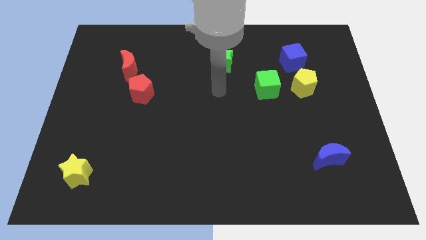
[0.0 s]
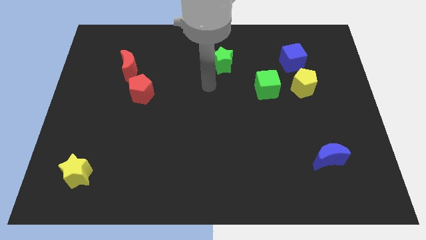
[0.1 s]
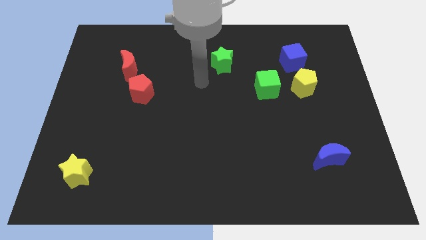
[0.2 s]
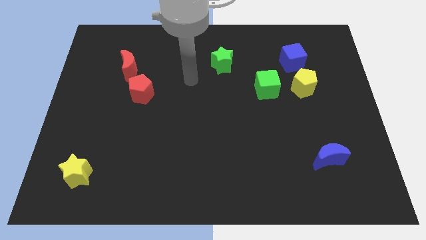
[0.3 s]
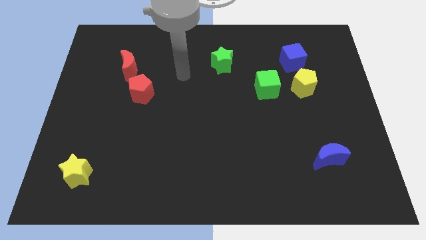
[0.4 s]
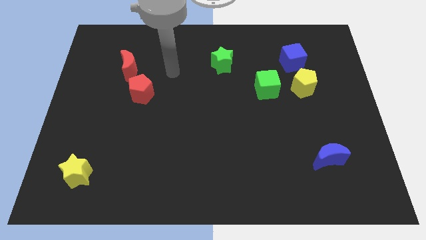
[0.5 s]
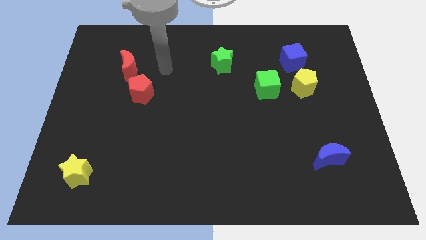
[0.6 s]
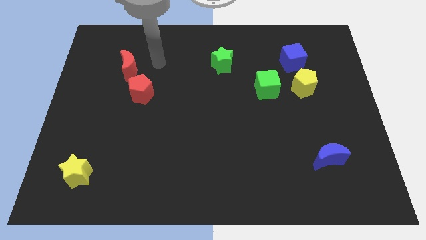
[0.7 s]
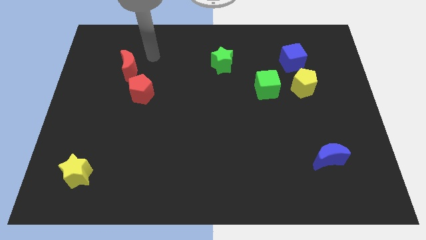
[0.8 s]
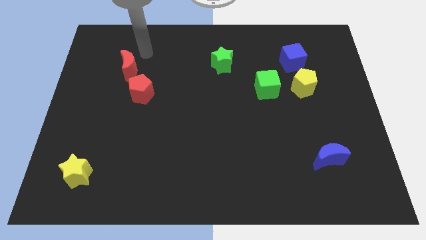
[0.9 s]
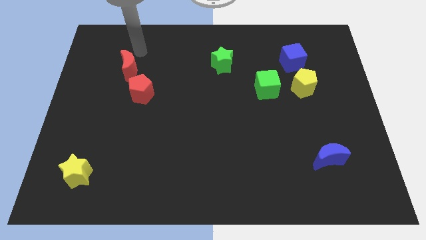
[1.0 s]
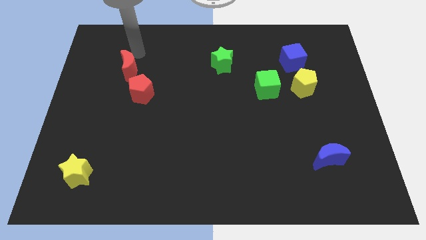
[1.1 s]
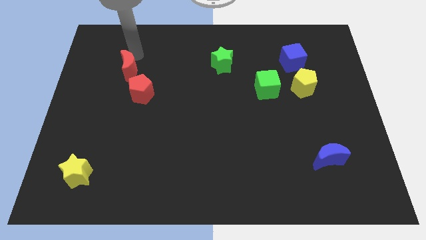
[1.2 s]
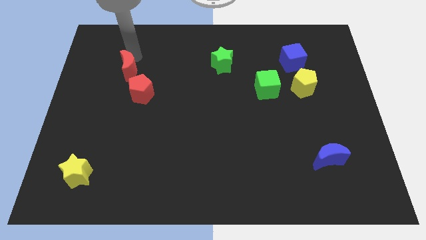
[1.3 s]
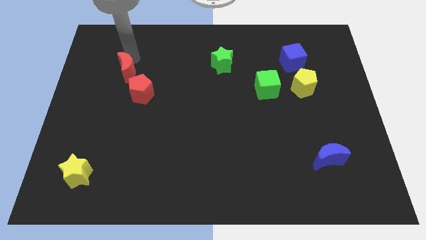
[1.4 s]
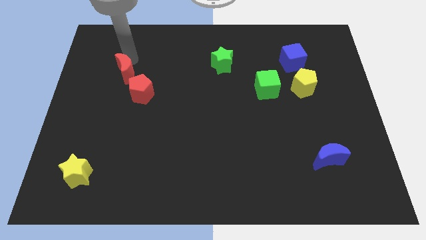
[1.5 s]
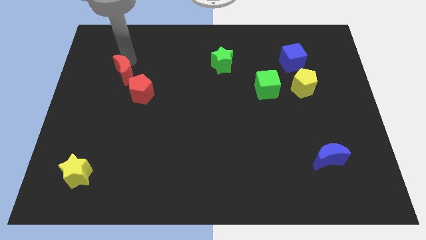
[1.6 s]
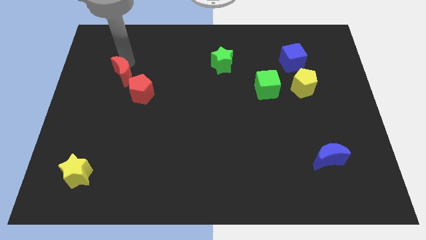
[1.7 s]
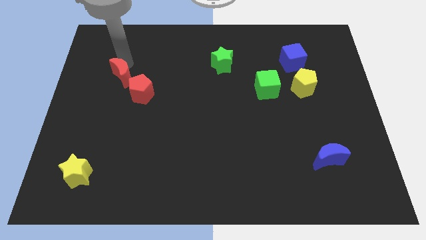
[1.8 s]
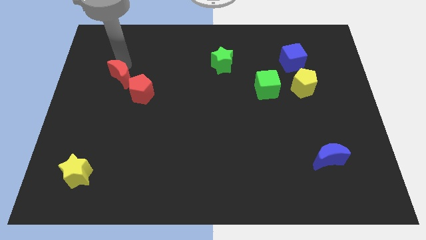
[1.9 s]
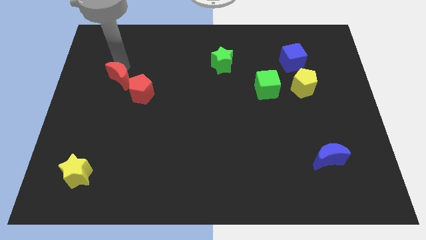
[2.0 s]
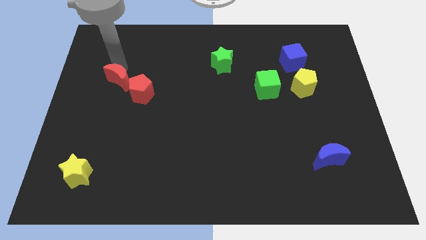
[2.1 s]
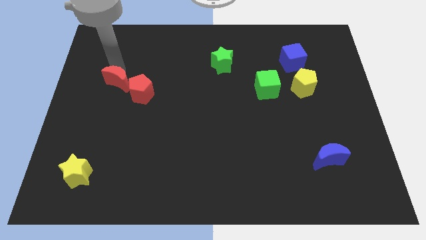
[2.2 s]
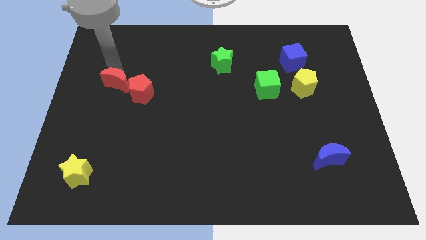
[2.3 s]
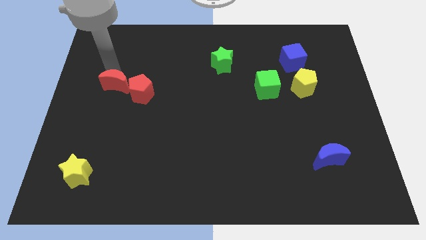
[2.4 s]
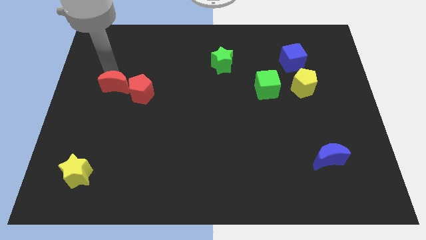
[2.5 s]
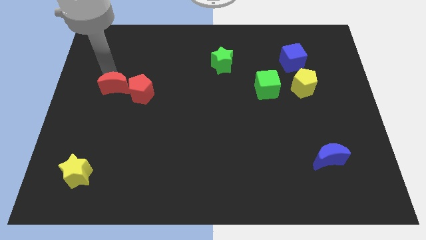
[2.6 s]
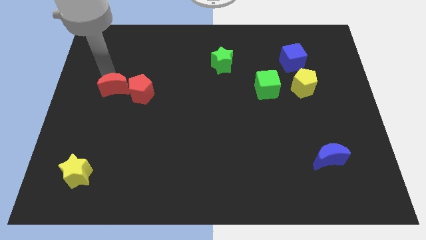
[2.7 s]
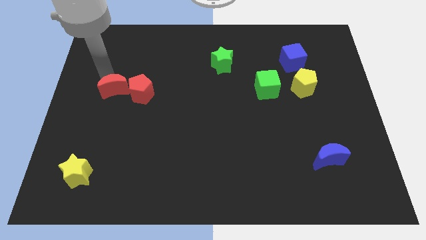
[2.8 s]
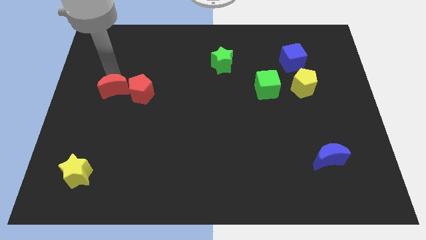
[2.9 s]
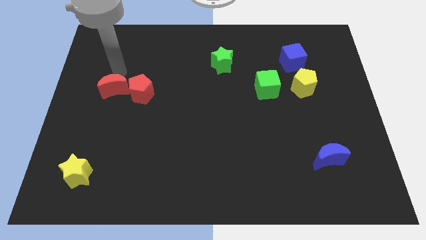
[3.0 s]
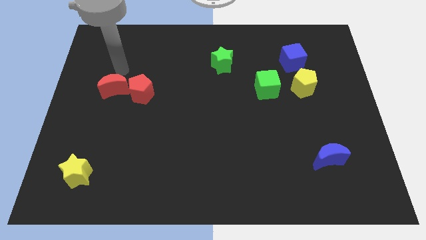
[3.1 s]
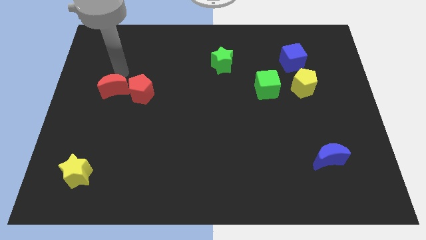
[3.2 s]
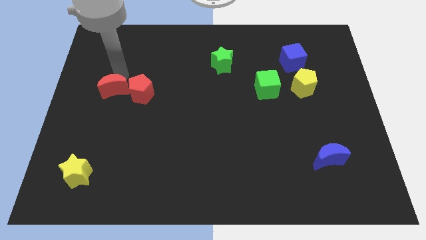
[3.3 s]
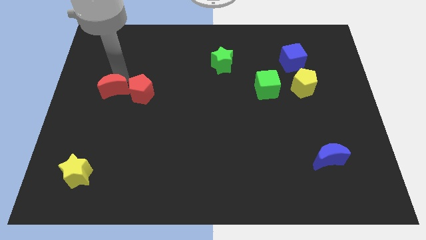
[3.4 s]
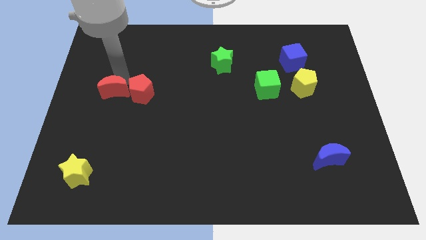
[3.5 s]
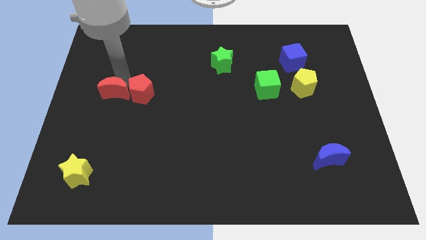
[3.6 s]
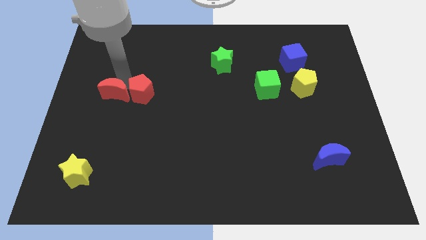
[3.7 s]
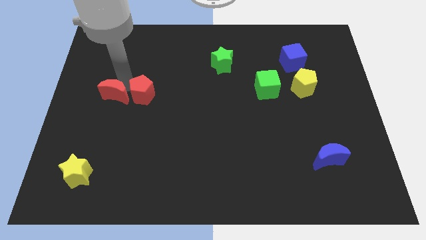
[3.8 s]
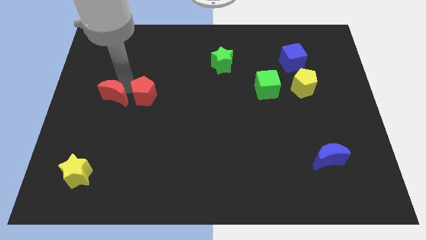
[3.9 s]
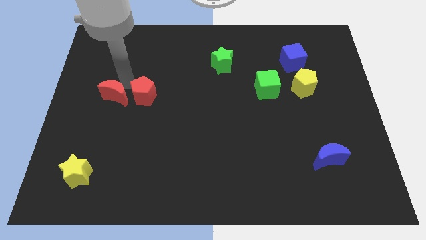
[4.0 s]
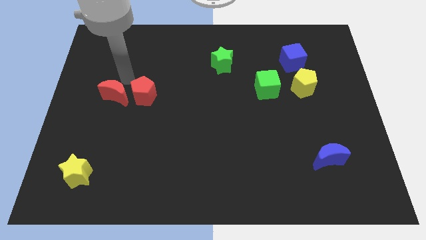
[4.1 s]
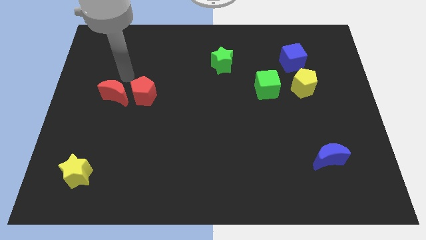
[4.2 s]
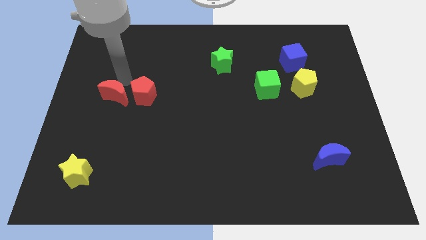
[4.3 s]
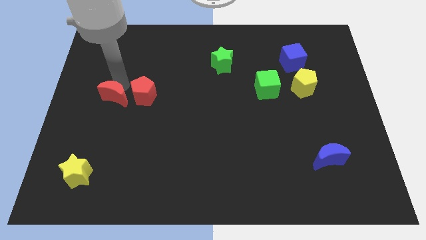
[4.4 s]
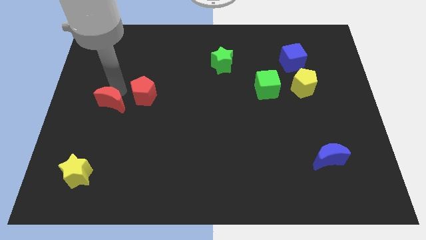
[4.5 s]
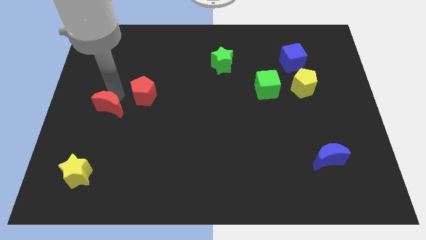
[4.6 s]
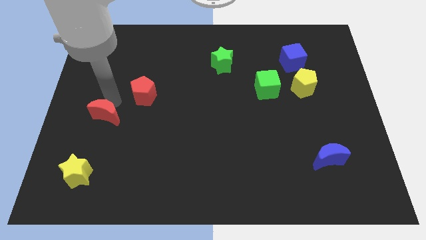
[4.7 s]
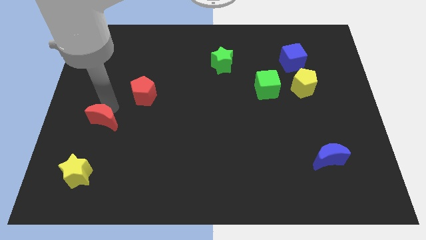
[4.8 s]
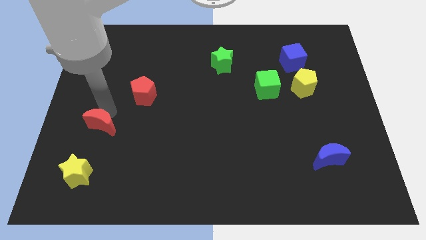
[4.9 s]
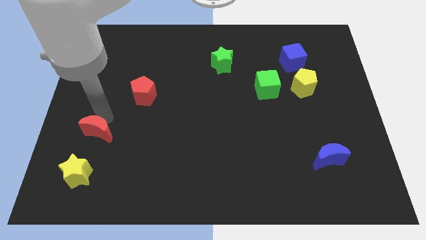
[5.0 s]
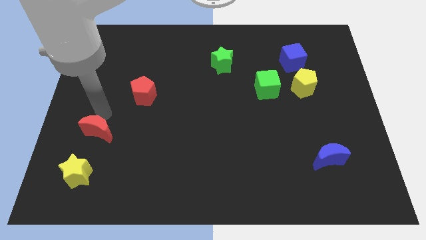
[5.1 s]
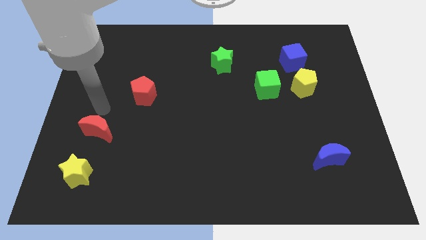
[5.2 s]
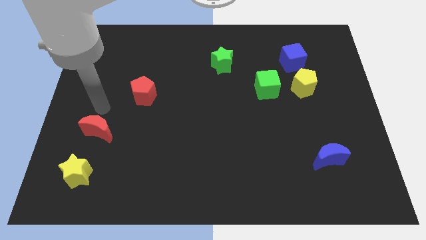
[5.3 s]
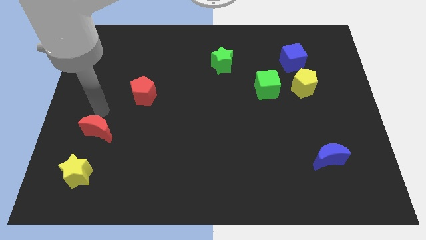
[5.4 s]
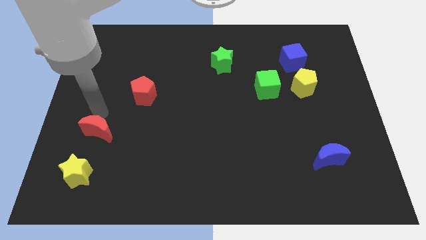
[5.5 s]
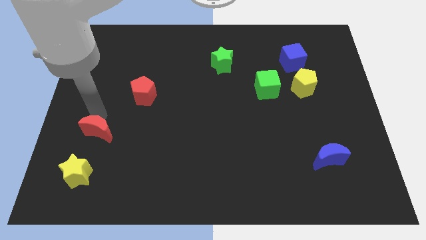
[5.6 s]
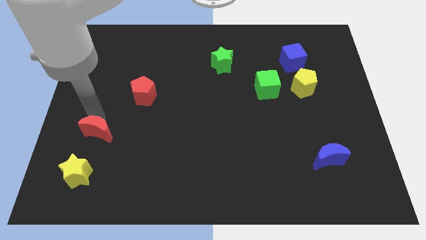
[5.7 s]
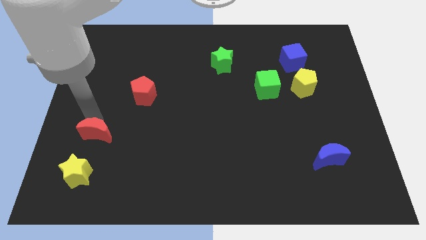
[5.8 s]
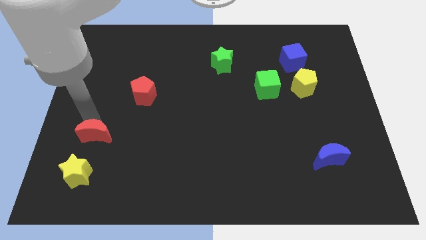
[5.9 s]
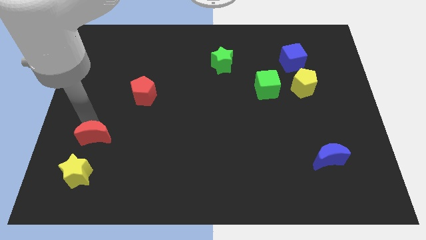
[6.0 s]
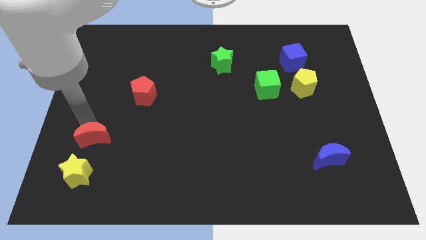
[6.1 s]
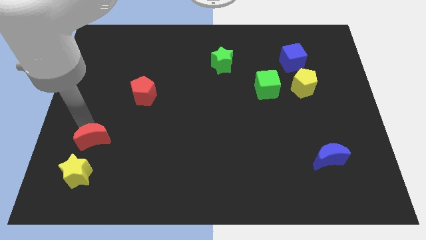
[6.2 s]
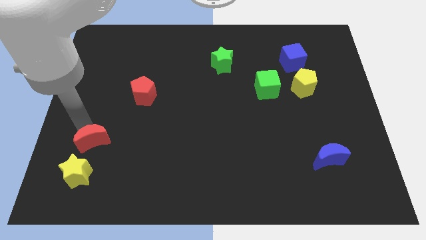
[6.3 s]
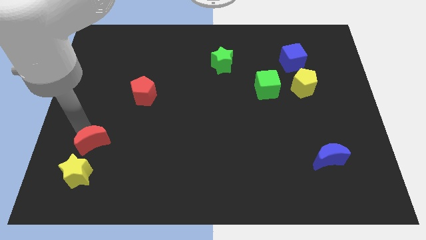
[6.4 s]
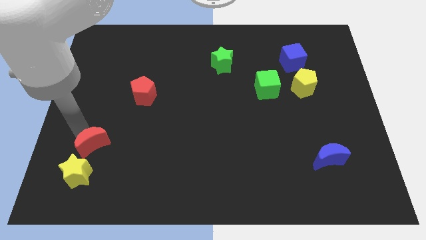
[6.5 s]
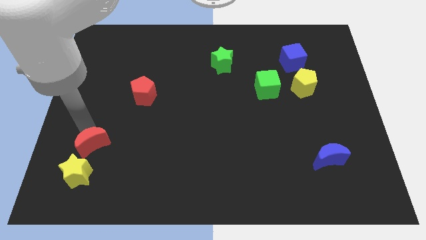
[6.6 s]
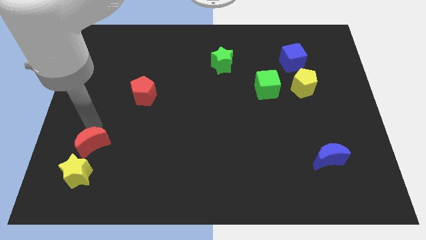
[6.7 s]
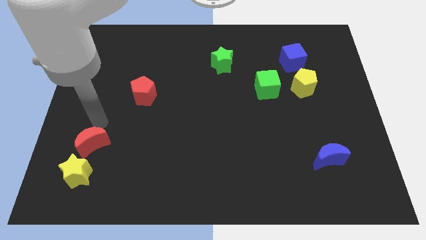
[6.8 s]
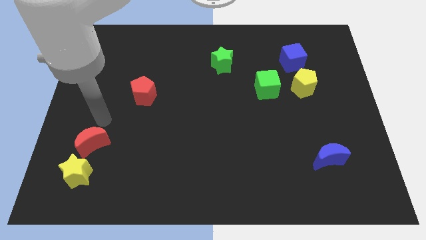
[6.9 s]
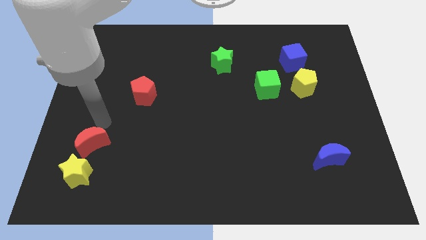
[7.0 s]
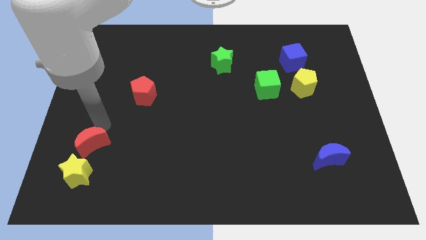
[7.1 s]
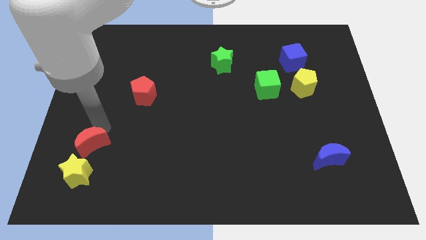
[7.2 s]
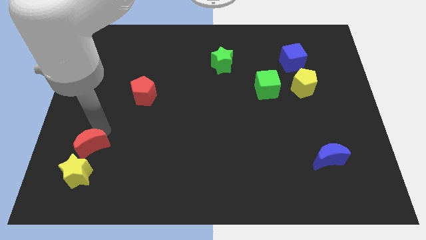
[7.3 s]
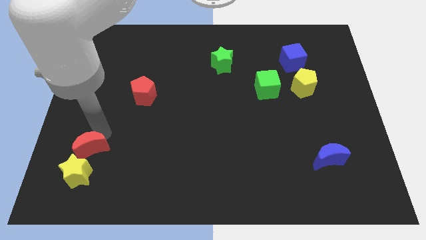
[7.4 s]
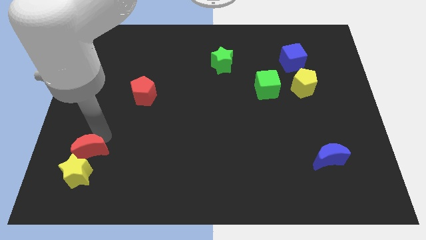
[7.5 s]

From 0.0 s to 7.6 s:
move the red moon next to the yellow star

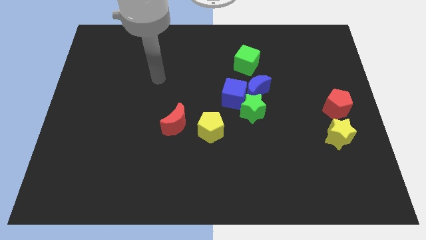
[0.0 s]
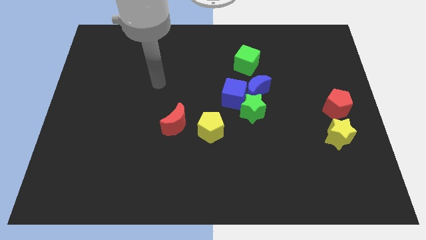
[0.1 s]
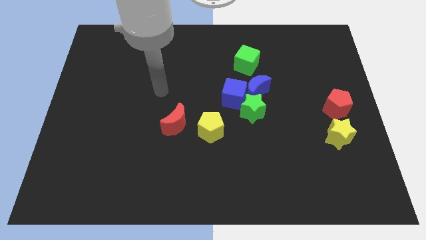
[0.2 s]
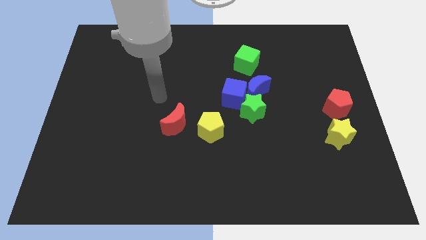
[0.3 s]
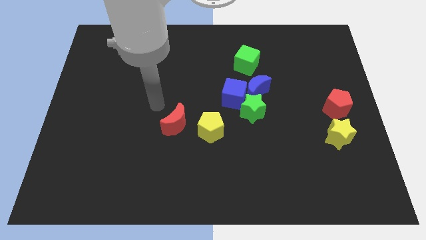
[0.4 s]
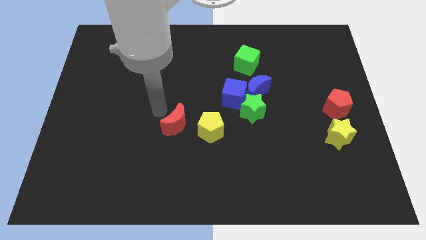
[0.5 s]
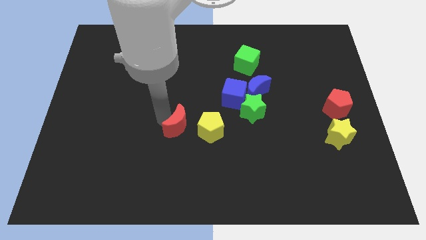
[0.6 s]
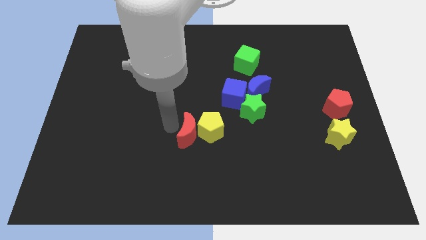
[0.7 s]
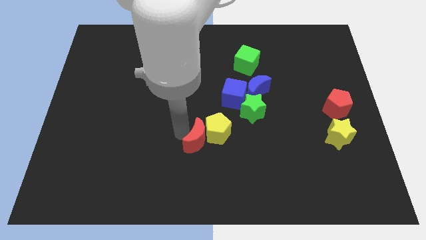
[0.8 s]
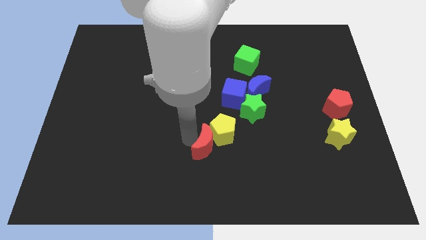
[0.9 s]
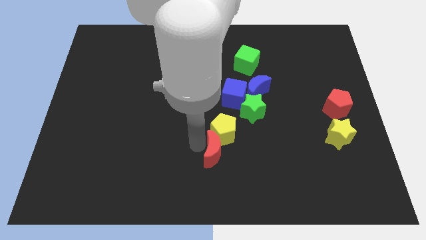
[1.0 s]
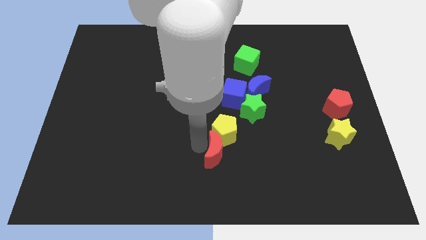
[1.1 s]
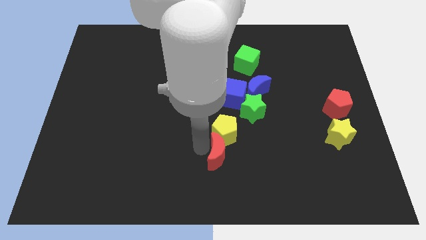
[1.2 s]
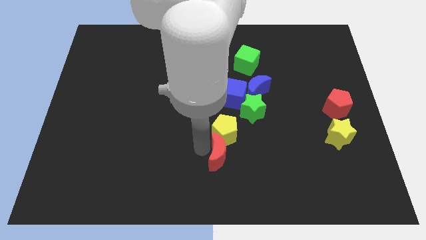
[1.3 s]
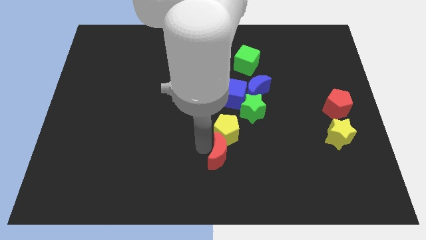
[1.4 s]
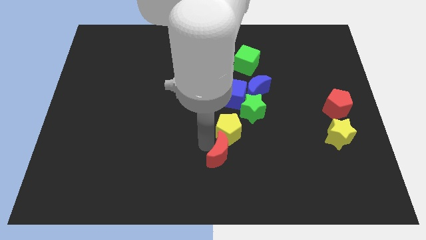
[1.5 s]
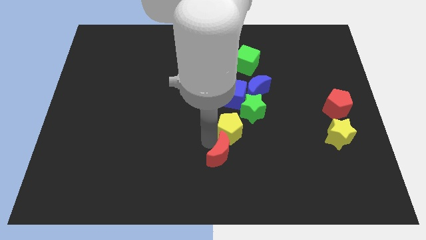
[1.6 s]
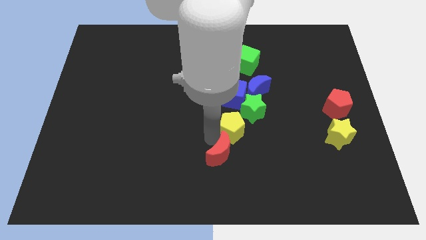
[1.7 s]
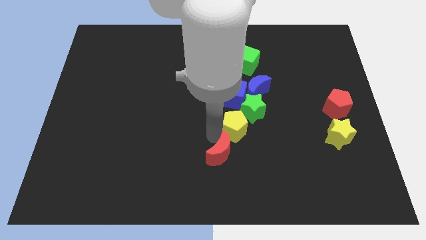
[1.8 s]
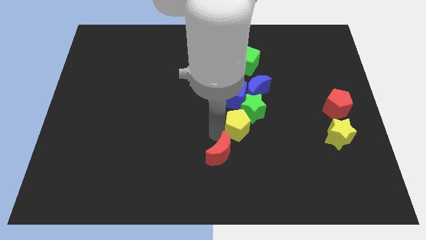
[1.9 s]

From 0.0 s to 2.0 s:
put the yellow pentagon towards the green star
